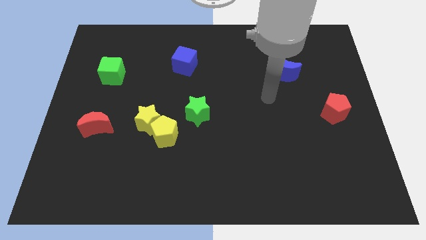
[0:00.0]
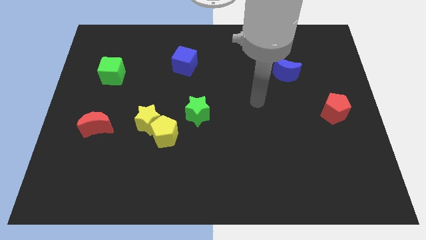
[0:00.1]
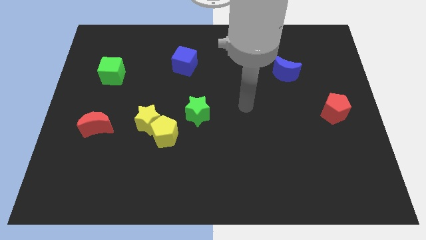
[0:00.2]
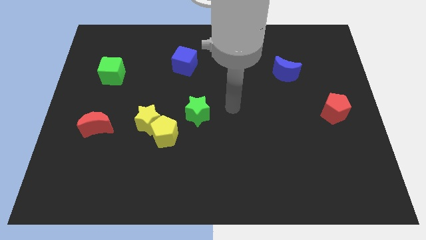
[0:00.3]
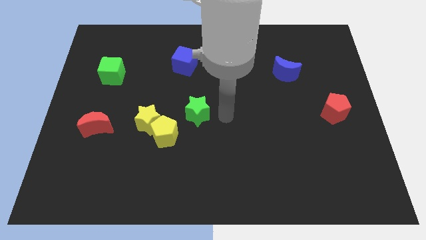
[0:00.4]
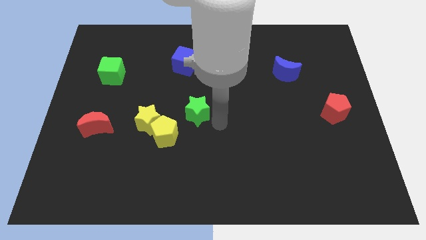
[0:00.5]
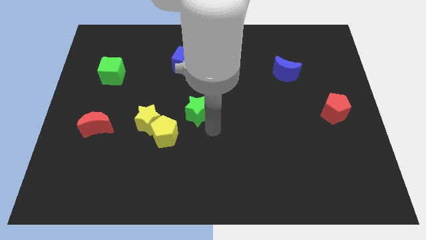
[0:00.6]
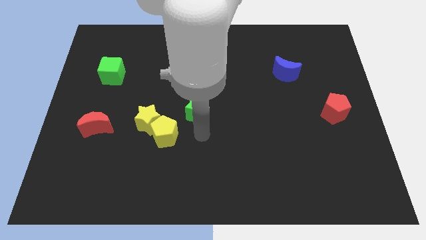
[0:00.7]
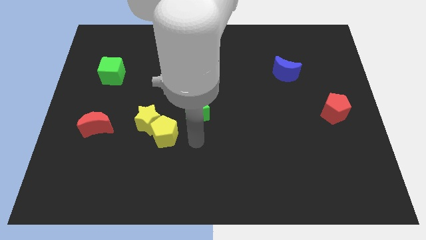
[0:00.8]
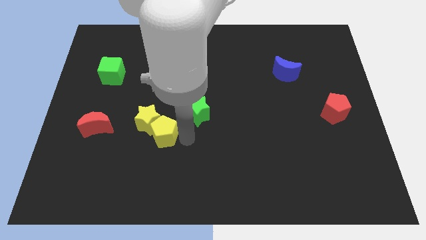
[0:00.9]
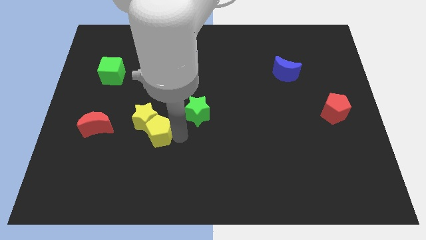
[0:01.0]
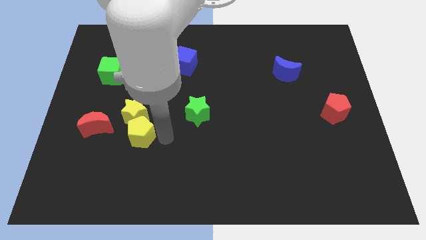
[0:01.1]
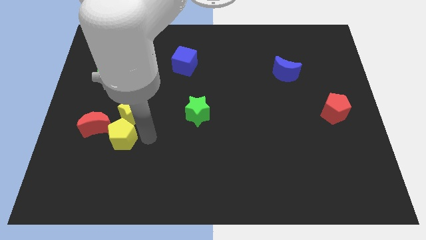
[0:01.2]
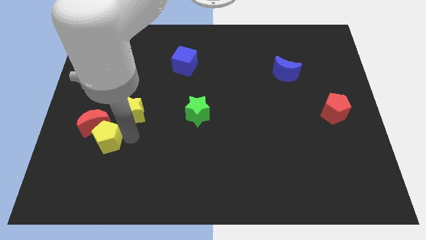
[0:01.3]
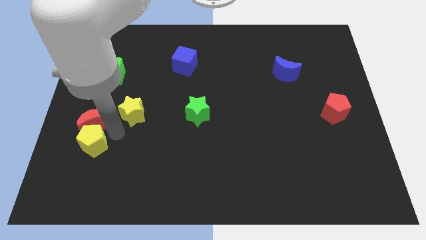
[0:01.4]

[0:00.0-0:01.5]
move the yellow star away from the yellow pentagon

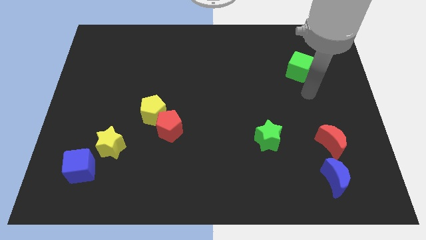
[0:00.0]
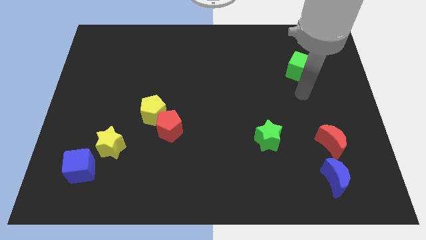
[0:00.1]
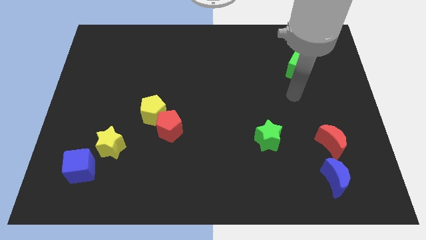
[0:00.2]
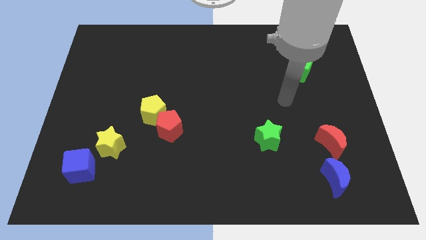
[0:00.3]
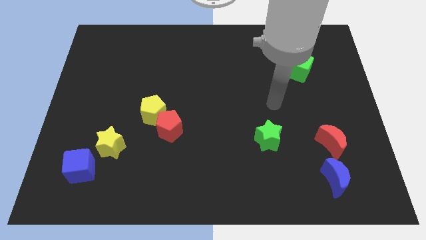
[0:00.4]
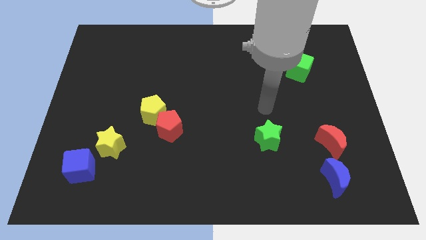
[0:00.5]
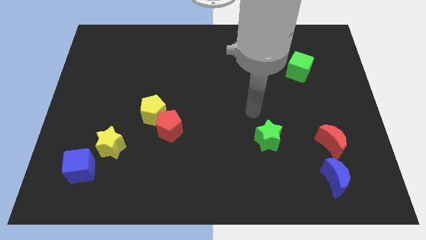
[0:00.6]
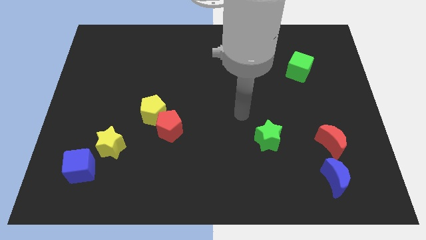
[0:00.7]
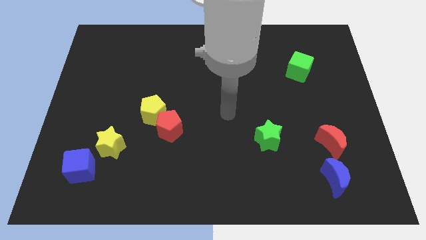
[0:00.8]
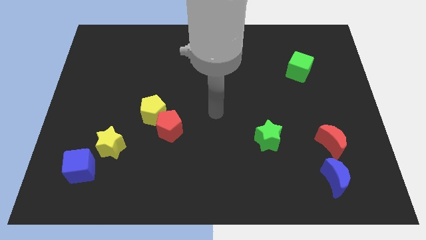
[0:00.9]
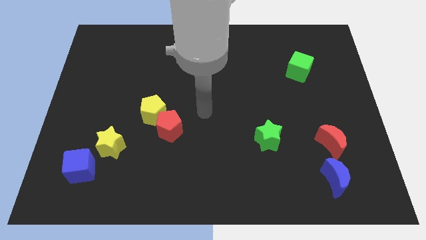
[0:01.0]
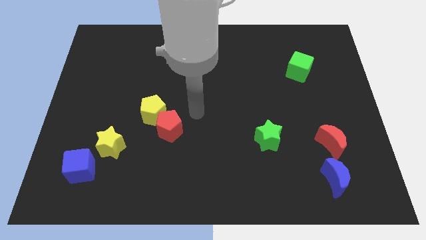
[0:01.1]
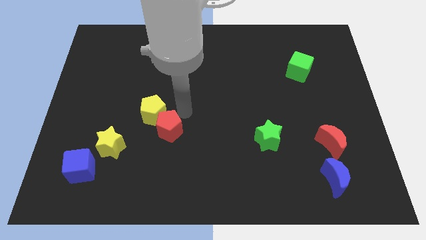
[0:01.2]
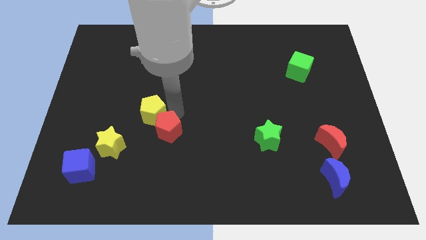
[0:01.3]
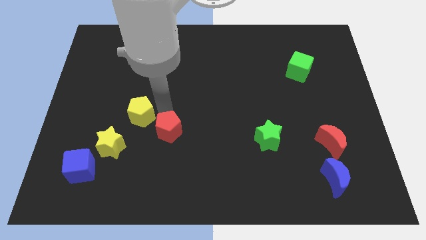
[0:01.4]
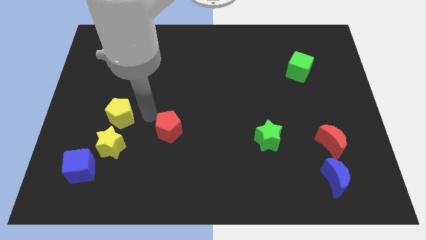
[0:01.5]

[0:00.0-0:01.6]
pull the red pentagon apart from the yellow pentagon

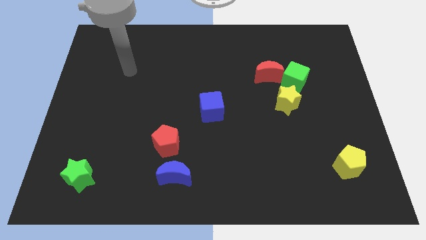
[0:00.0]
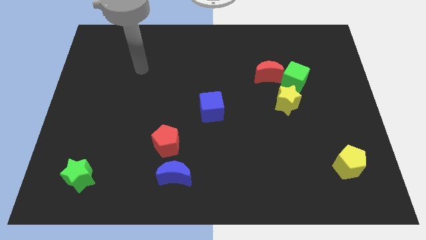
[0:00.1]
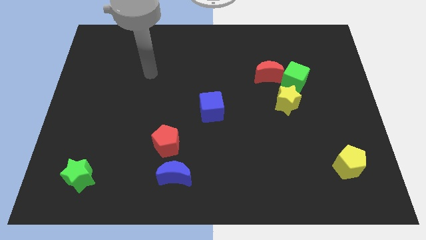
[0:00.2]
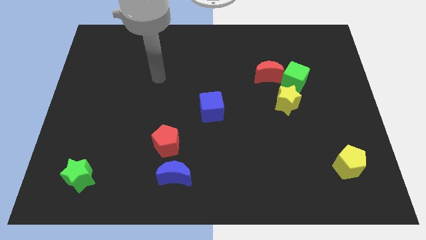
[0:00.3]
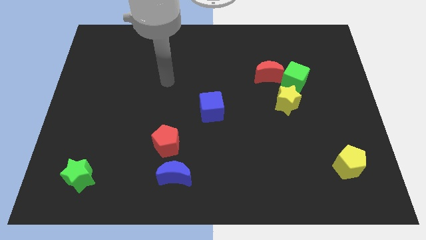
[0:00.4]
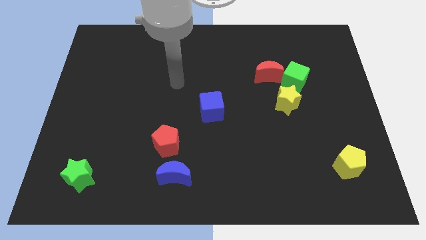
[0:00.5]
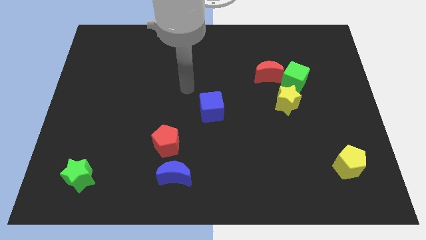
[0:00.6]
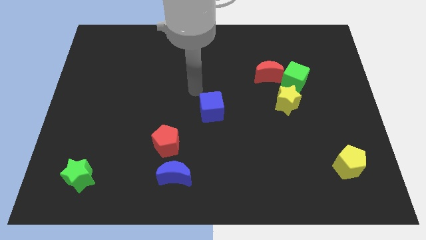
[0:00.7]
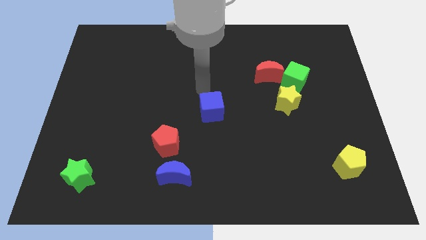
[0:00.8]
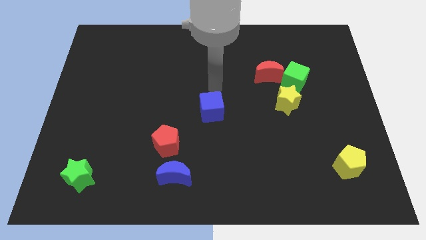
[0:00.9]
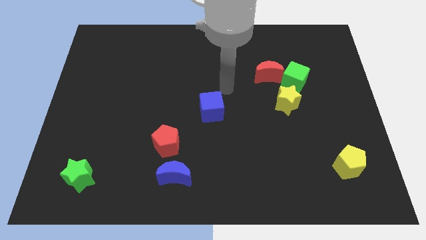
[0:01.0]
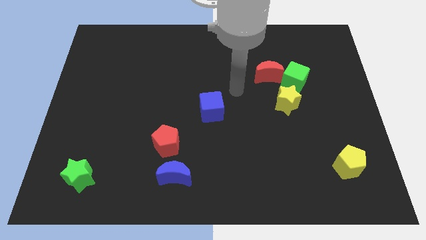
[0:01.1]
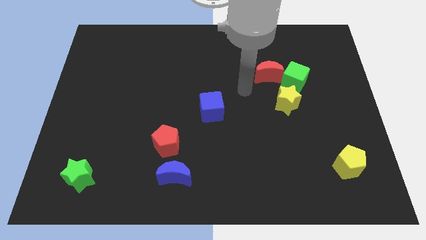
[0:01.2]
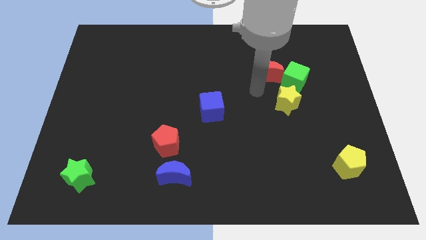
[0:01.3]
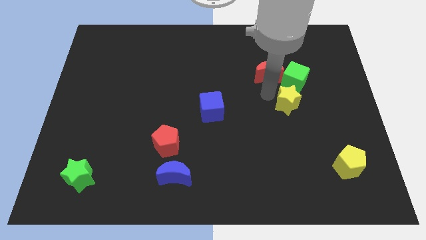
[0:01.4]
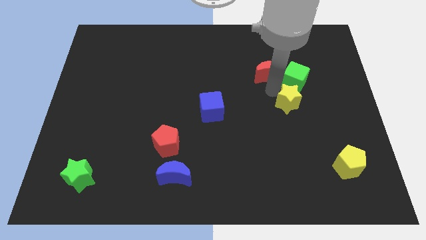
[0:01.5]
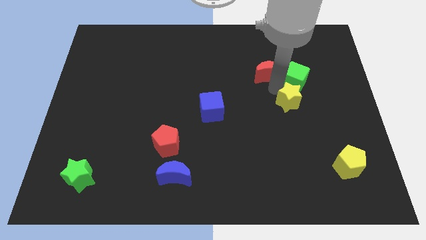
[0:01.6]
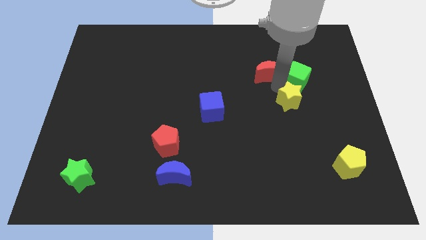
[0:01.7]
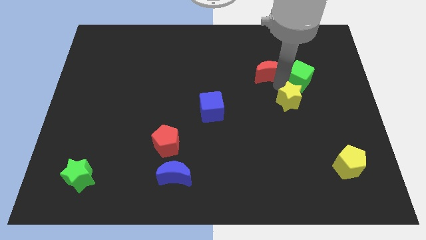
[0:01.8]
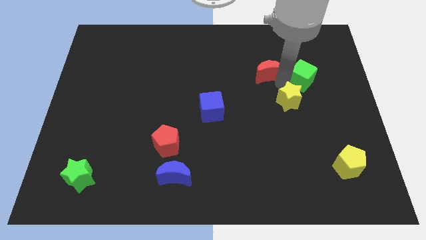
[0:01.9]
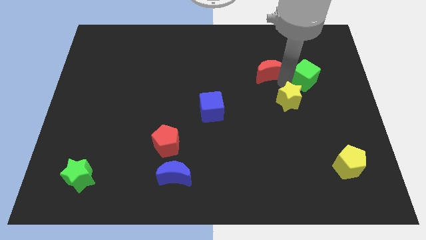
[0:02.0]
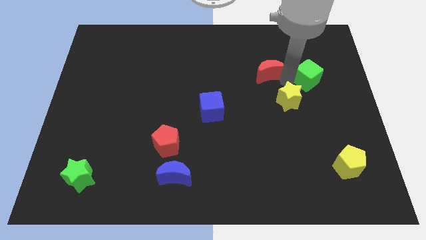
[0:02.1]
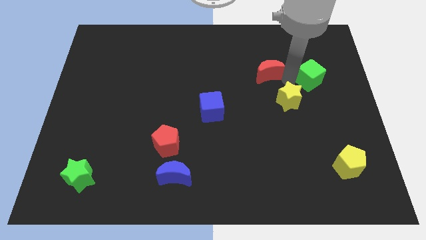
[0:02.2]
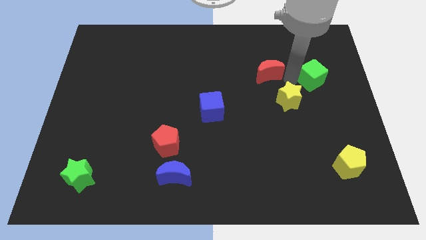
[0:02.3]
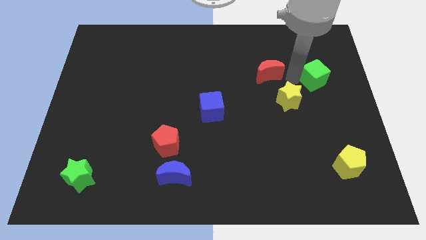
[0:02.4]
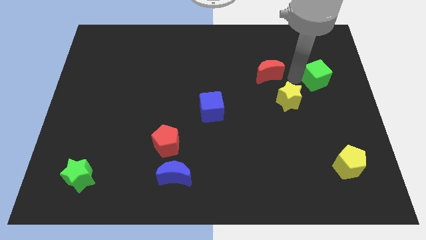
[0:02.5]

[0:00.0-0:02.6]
separate the green cube from the red moon and yellow star

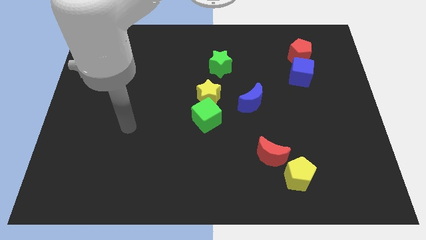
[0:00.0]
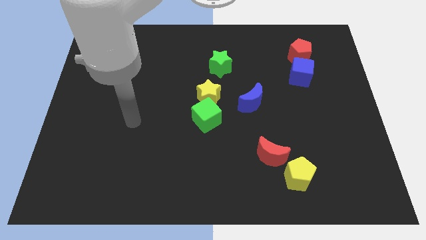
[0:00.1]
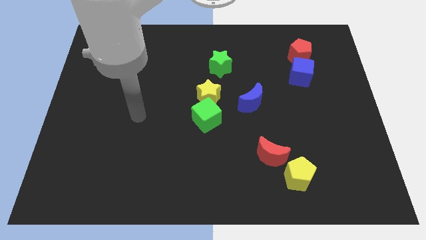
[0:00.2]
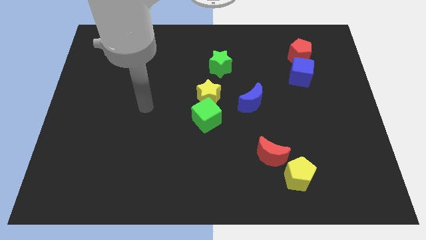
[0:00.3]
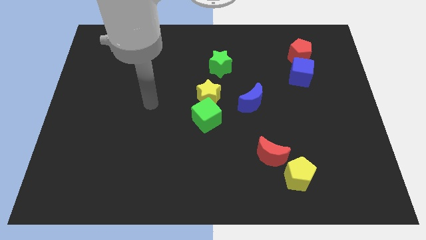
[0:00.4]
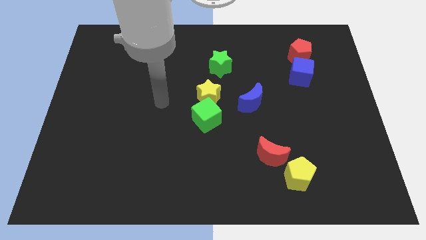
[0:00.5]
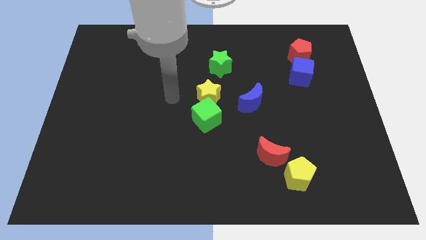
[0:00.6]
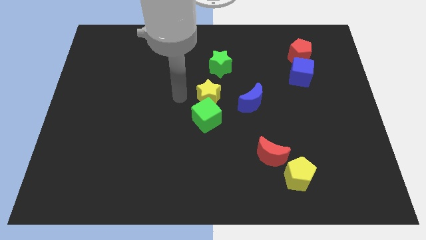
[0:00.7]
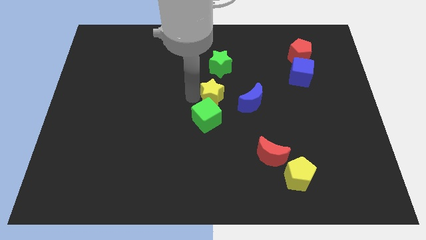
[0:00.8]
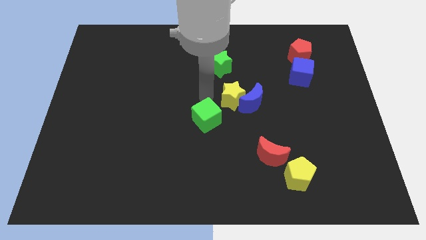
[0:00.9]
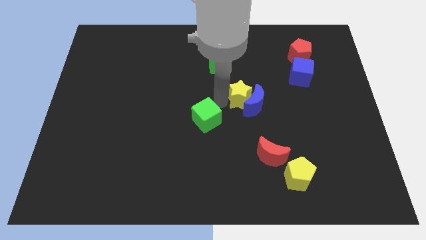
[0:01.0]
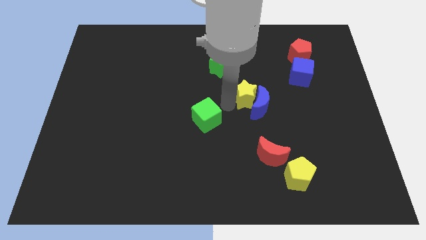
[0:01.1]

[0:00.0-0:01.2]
separate the green cube from the yellow star

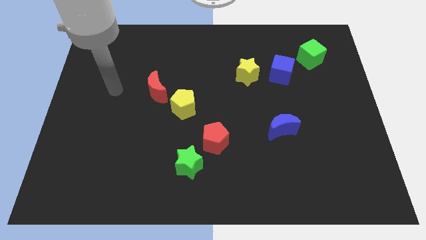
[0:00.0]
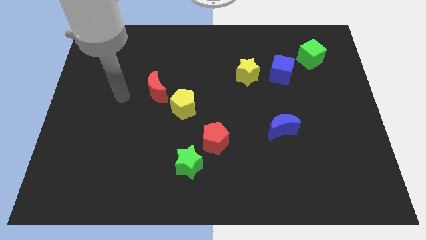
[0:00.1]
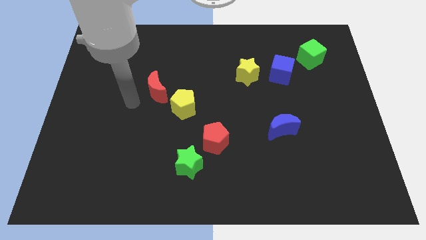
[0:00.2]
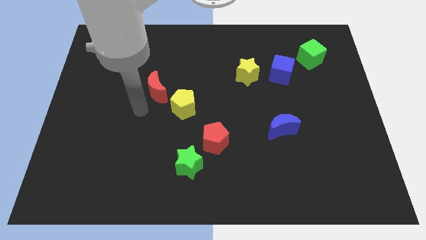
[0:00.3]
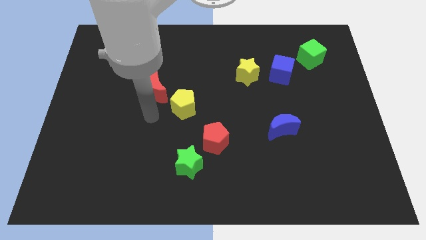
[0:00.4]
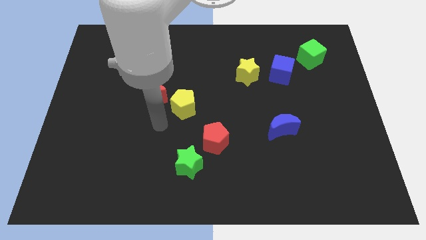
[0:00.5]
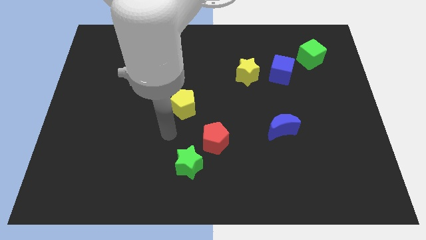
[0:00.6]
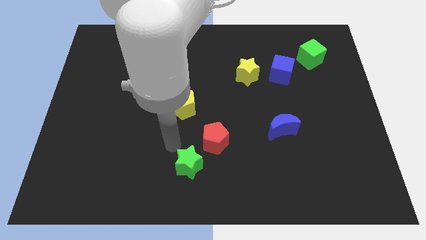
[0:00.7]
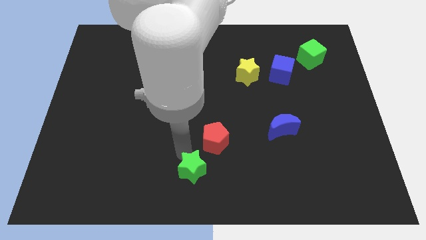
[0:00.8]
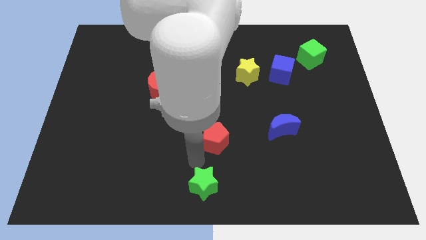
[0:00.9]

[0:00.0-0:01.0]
pull the red pentagon apart from the green star

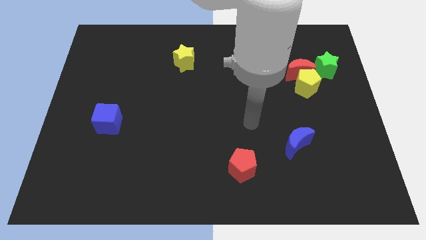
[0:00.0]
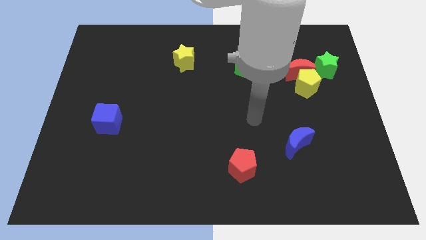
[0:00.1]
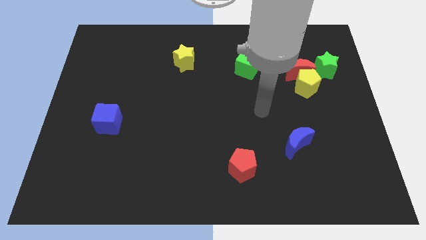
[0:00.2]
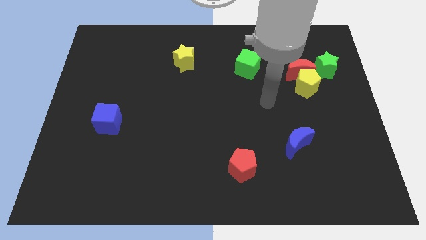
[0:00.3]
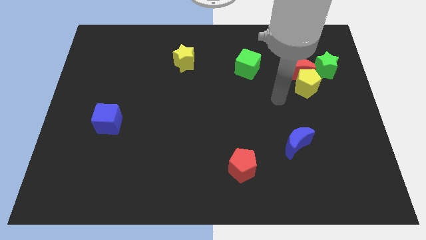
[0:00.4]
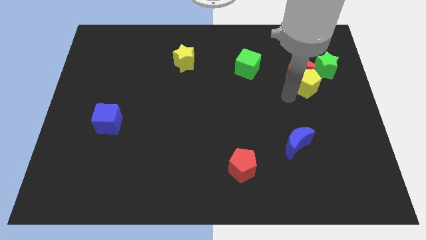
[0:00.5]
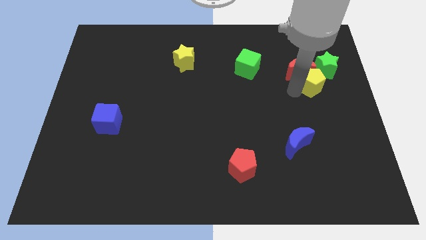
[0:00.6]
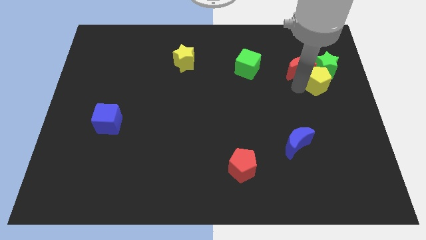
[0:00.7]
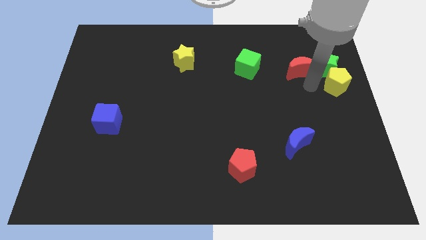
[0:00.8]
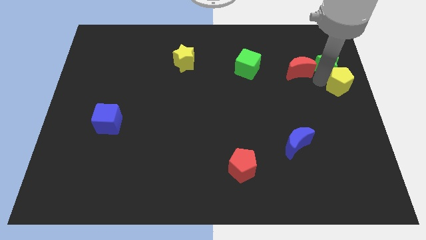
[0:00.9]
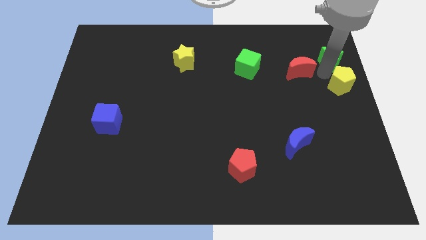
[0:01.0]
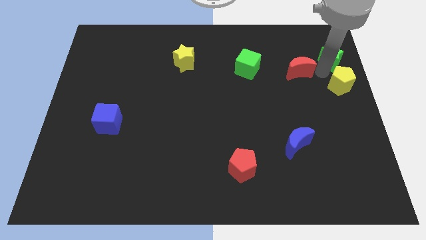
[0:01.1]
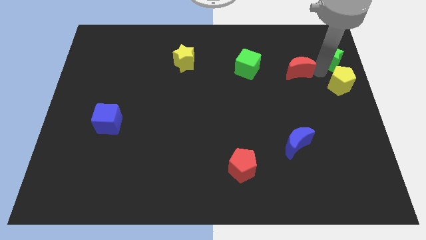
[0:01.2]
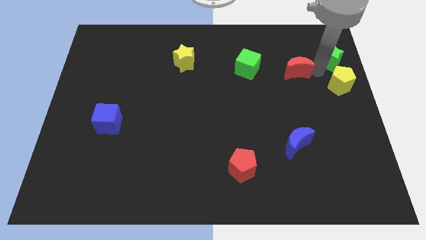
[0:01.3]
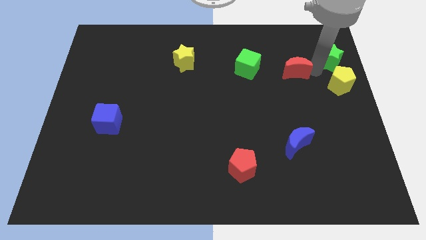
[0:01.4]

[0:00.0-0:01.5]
move the red moon away from the yellow pentagon and green star

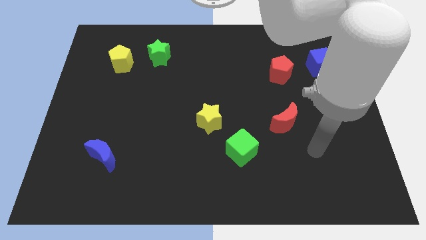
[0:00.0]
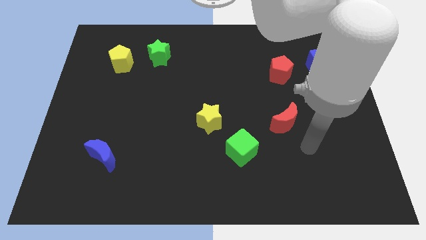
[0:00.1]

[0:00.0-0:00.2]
pull the green star apart from the yellow pentagon
